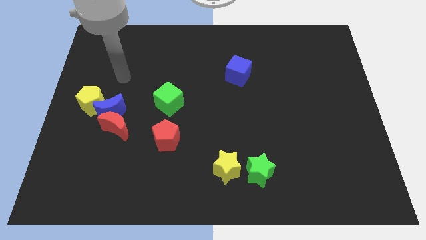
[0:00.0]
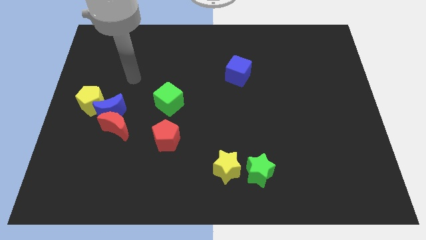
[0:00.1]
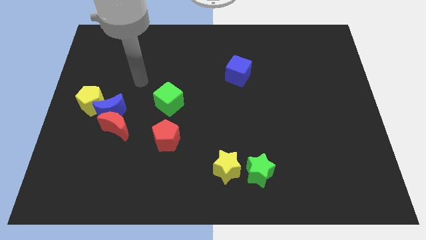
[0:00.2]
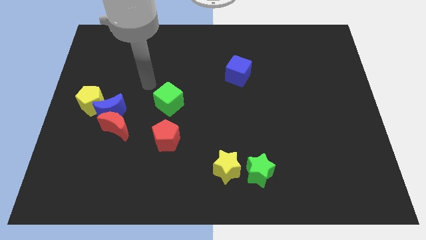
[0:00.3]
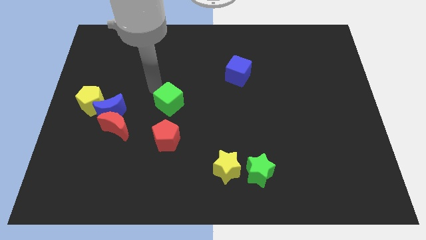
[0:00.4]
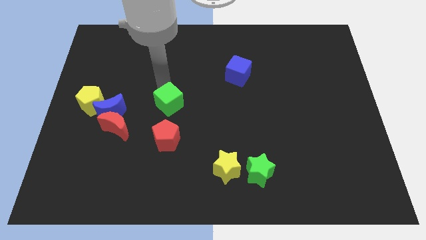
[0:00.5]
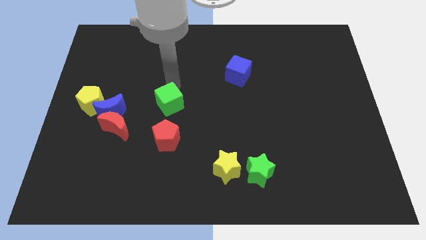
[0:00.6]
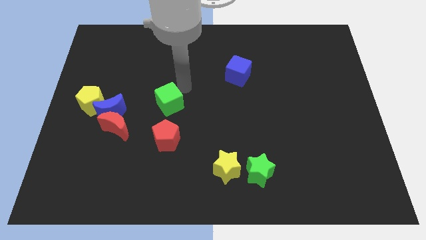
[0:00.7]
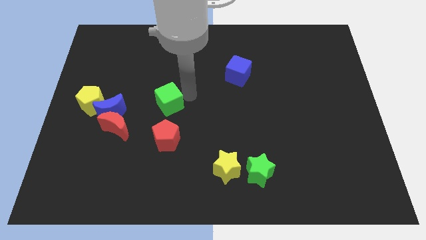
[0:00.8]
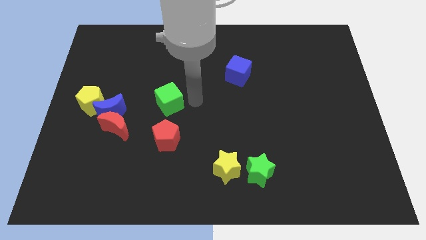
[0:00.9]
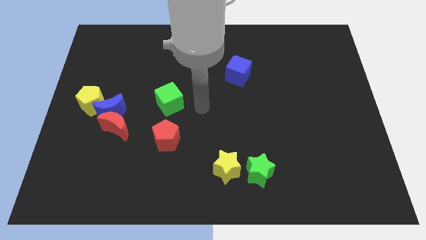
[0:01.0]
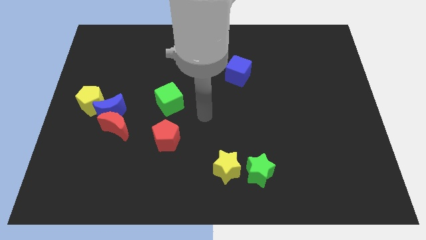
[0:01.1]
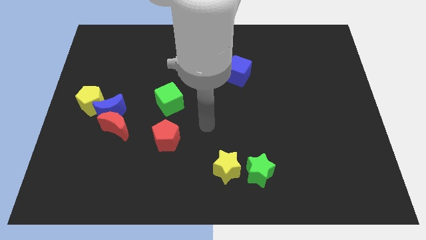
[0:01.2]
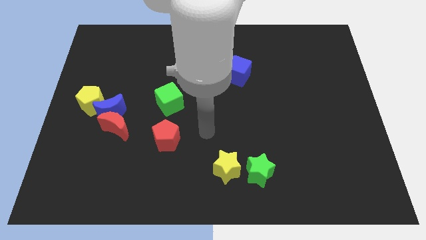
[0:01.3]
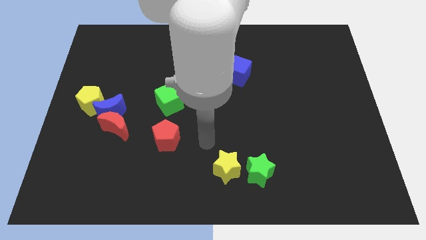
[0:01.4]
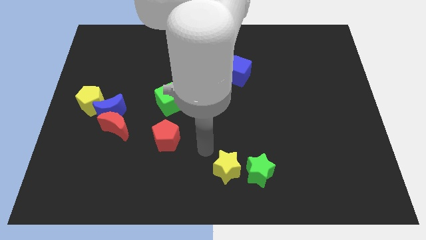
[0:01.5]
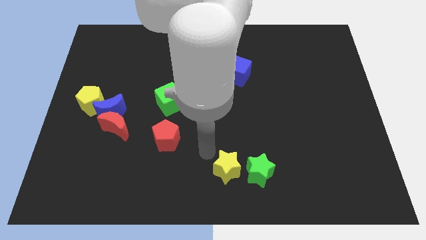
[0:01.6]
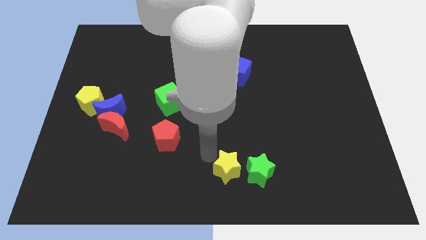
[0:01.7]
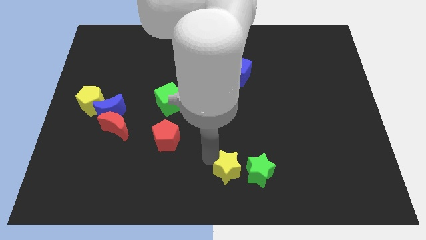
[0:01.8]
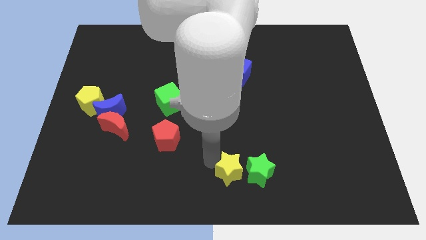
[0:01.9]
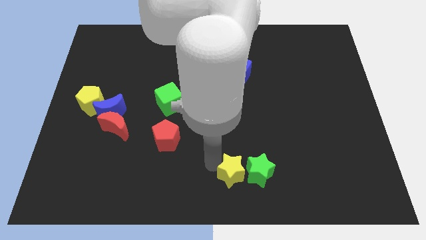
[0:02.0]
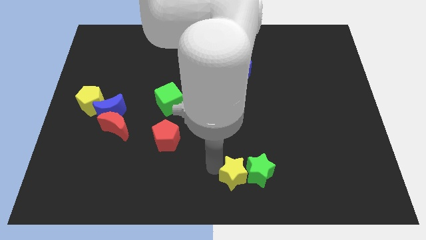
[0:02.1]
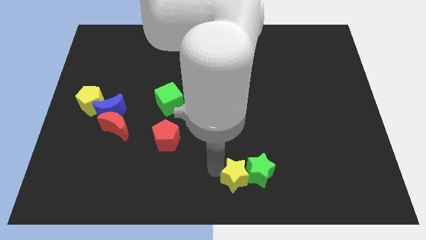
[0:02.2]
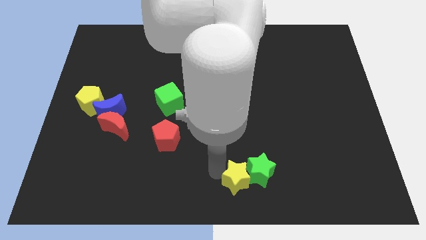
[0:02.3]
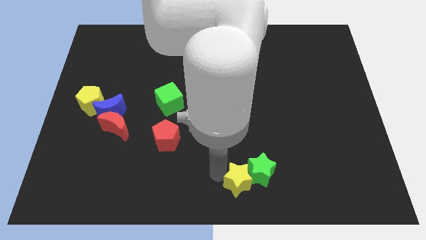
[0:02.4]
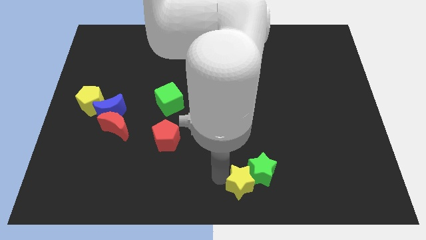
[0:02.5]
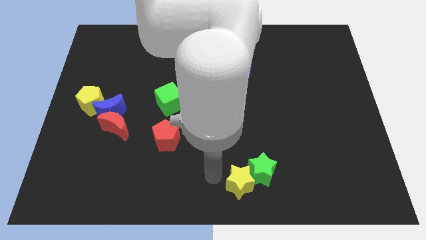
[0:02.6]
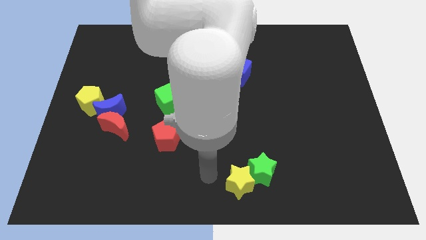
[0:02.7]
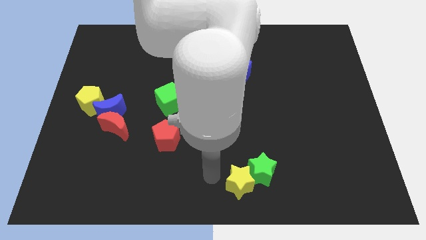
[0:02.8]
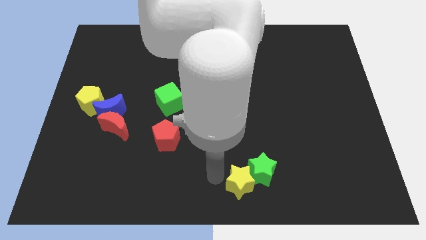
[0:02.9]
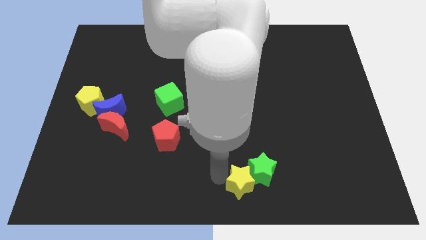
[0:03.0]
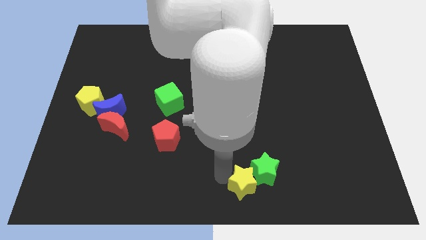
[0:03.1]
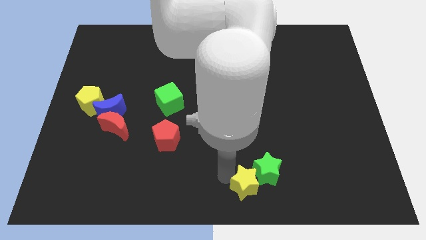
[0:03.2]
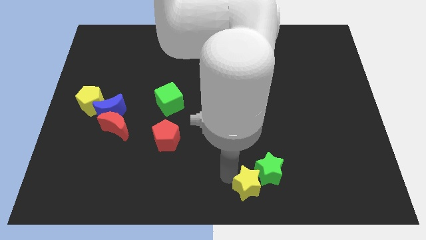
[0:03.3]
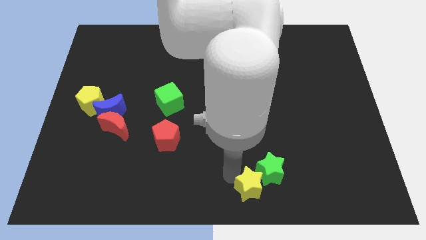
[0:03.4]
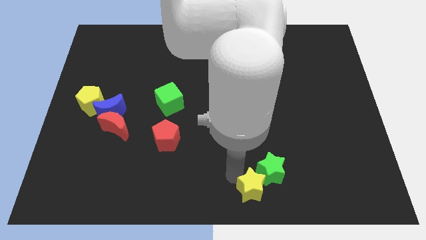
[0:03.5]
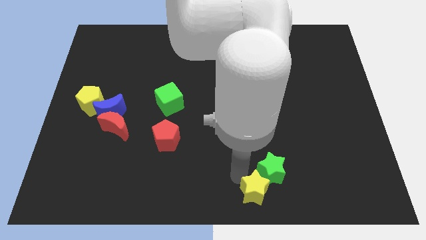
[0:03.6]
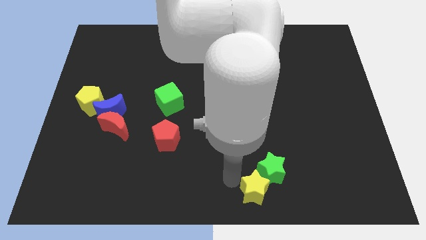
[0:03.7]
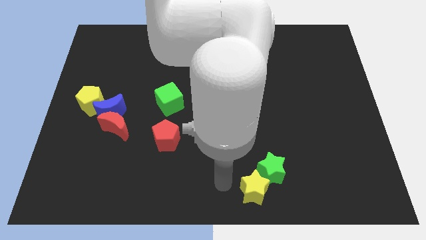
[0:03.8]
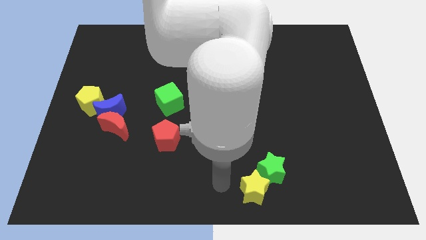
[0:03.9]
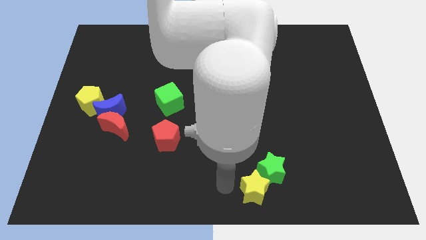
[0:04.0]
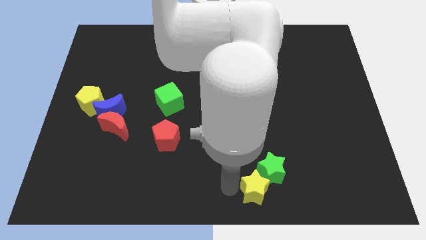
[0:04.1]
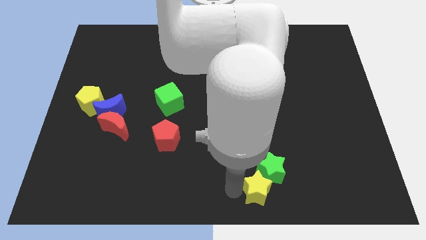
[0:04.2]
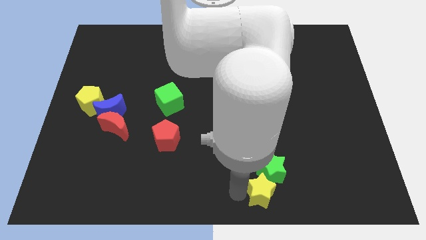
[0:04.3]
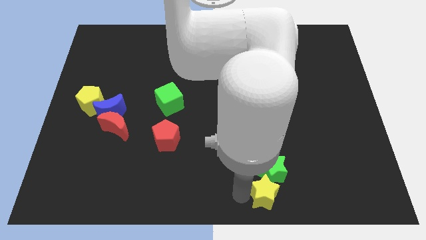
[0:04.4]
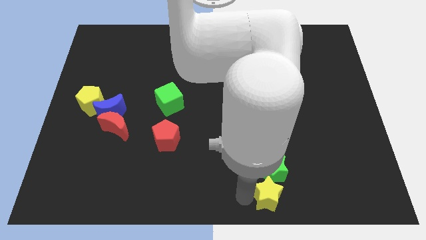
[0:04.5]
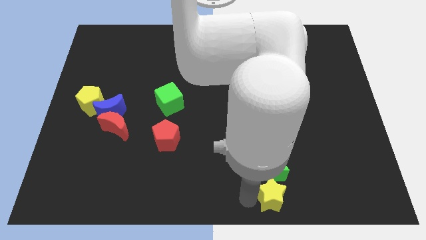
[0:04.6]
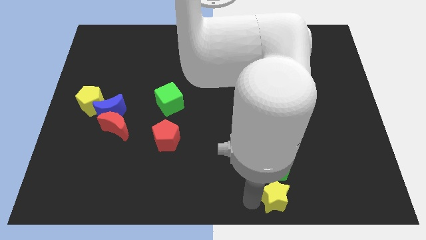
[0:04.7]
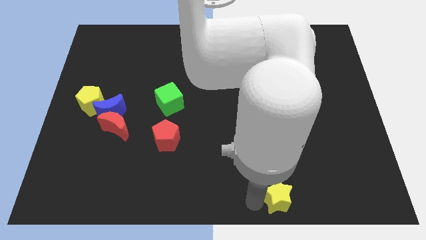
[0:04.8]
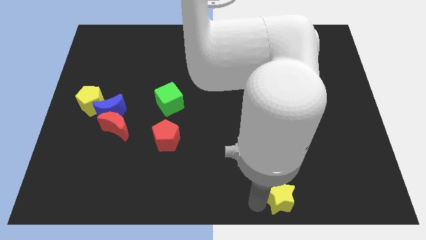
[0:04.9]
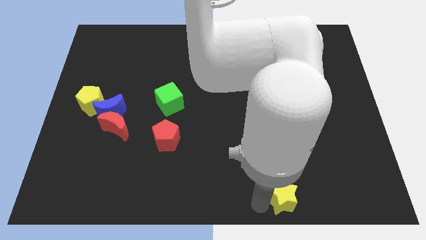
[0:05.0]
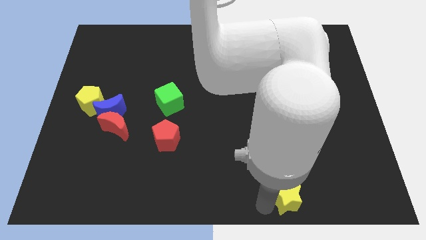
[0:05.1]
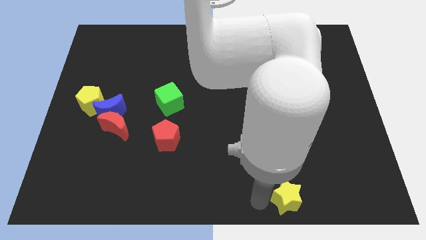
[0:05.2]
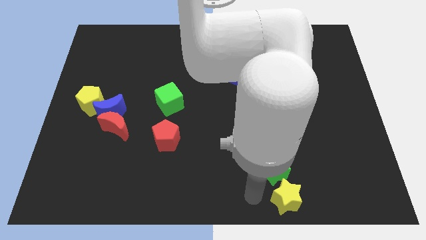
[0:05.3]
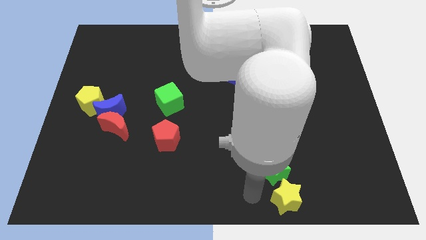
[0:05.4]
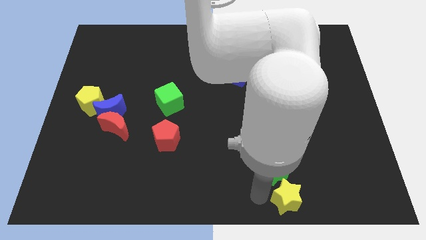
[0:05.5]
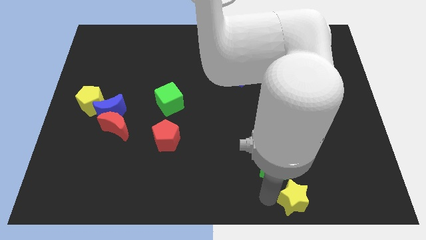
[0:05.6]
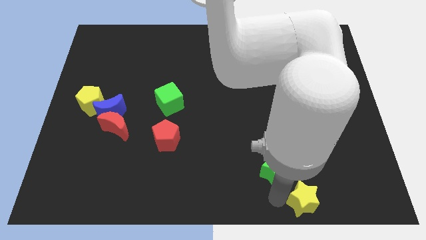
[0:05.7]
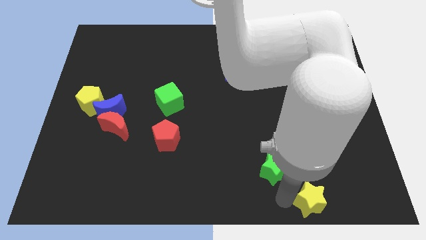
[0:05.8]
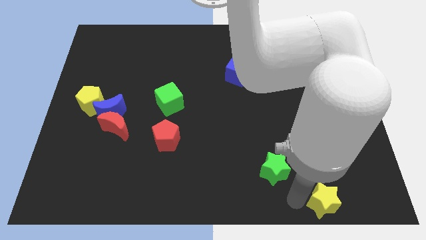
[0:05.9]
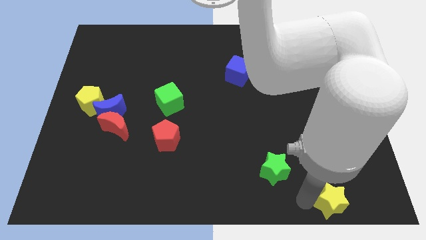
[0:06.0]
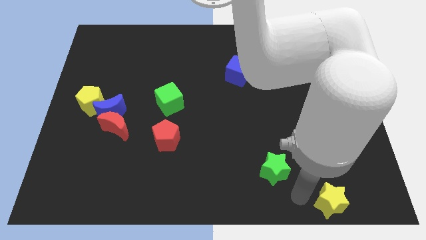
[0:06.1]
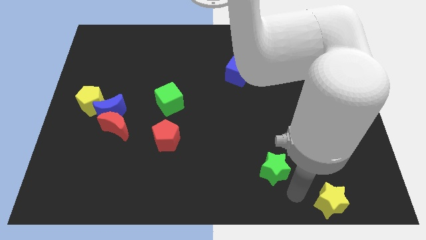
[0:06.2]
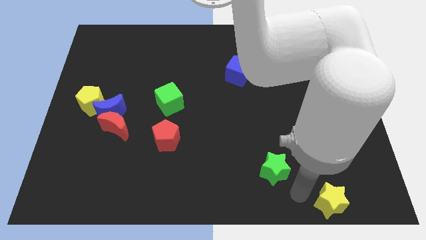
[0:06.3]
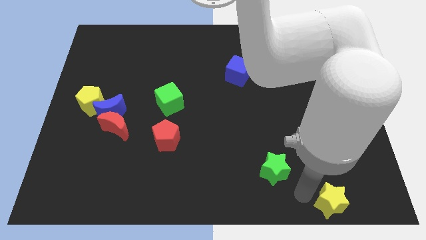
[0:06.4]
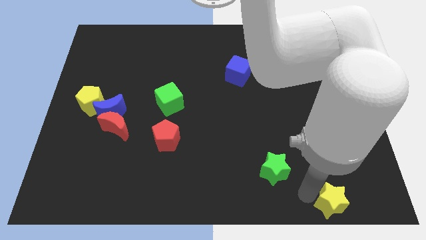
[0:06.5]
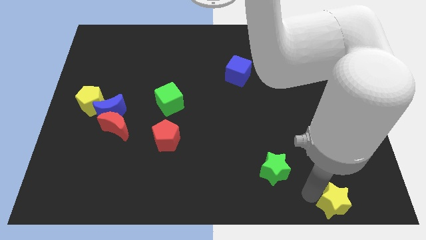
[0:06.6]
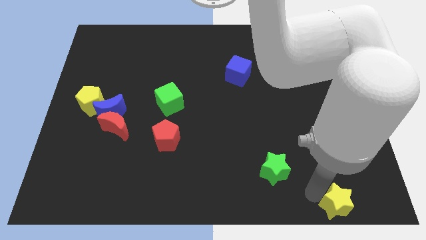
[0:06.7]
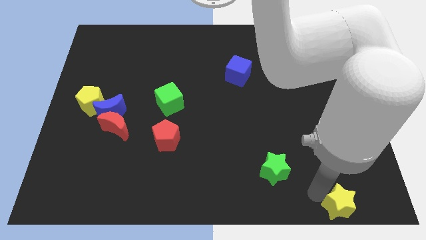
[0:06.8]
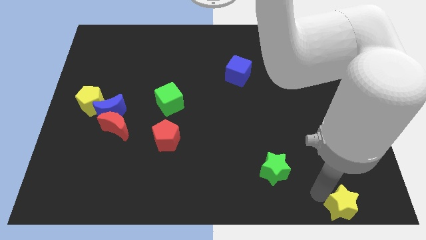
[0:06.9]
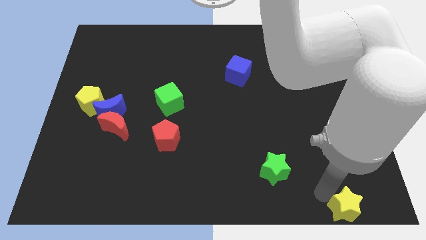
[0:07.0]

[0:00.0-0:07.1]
push the yellow star to the bottom right corner
